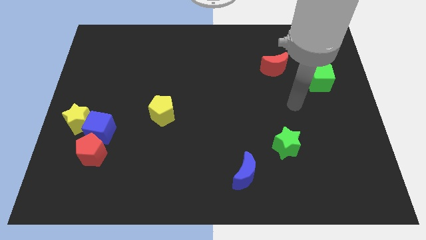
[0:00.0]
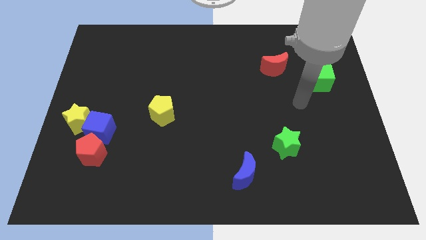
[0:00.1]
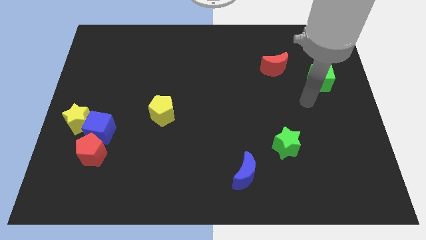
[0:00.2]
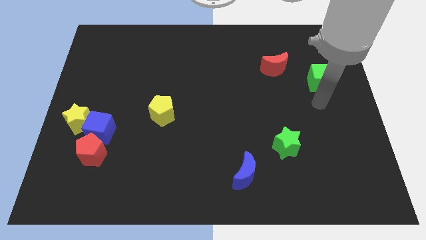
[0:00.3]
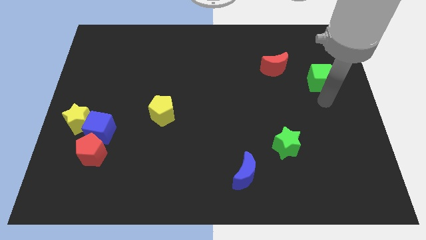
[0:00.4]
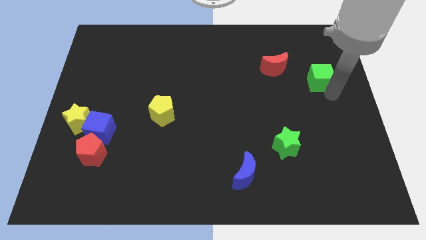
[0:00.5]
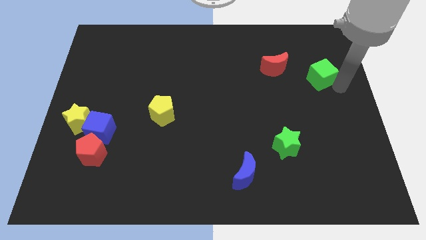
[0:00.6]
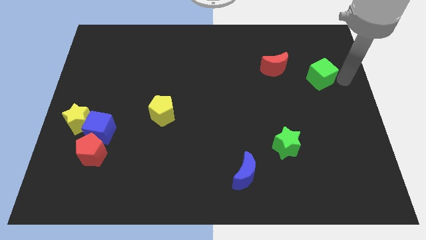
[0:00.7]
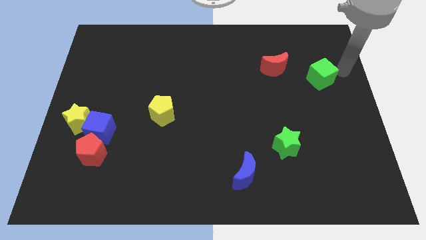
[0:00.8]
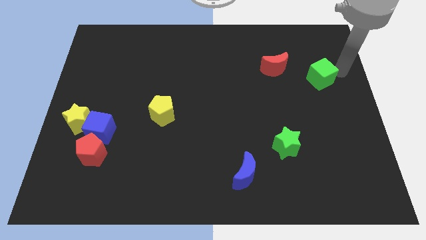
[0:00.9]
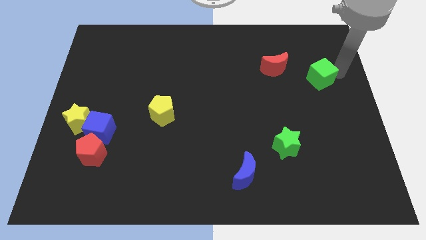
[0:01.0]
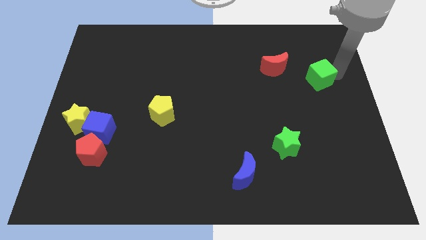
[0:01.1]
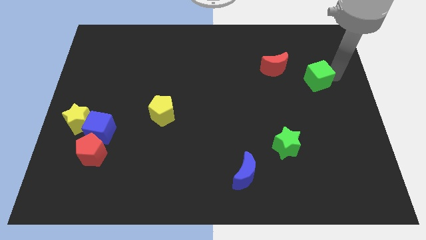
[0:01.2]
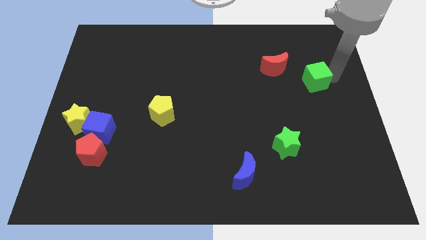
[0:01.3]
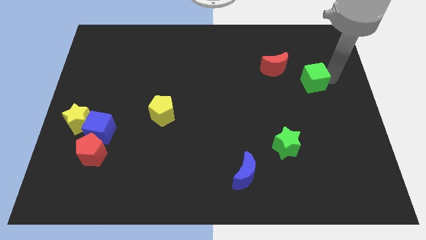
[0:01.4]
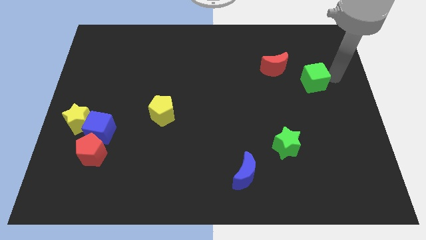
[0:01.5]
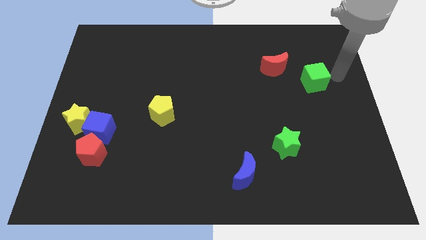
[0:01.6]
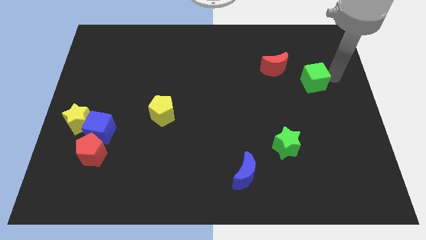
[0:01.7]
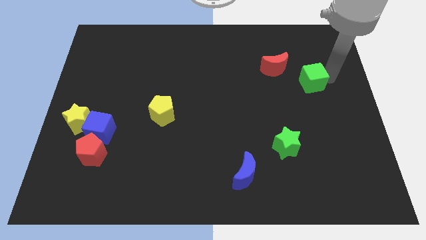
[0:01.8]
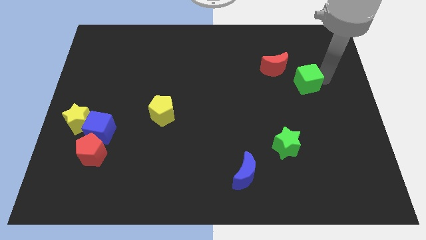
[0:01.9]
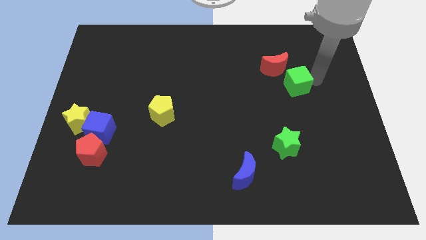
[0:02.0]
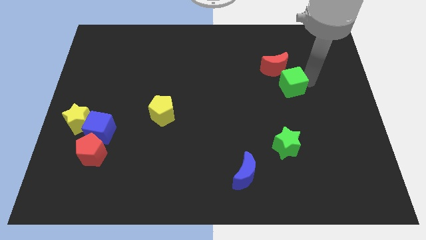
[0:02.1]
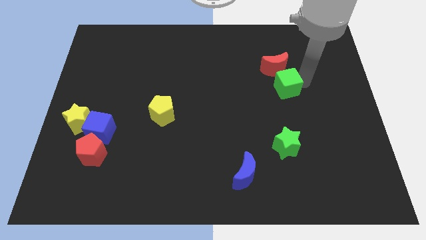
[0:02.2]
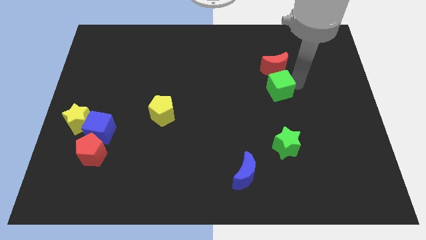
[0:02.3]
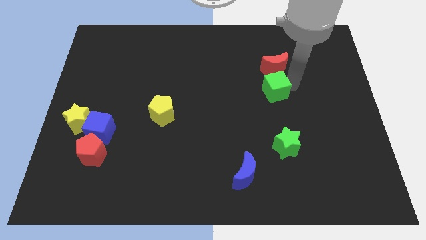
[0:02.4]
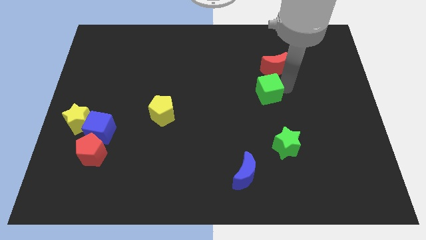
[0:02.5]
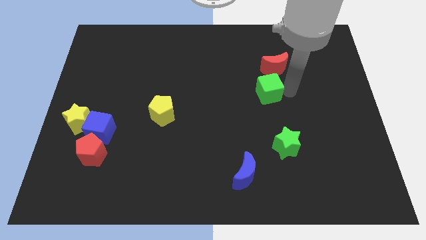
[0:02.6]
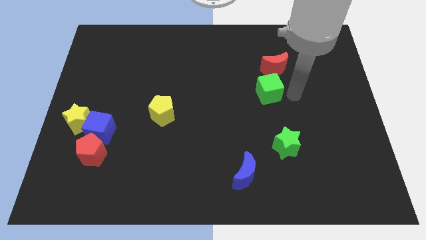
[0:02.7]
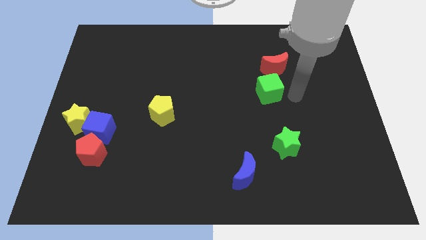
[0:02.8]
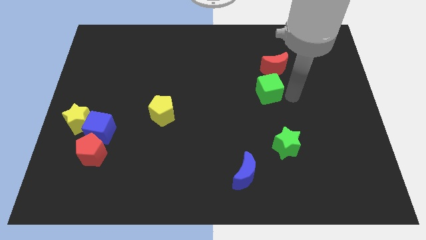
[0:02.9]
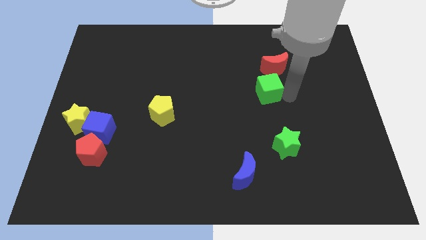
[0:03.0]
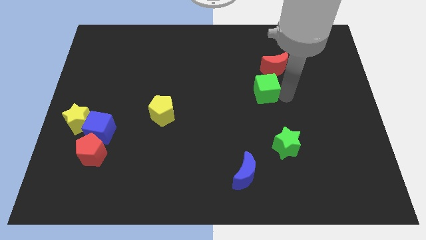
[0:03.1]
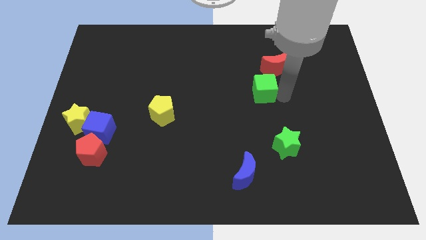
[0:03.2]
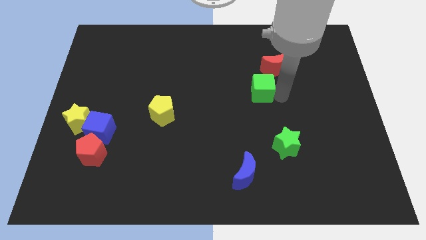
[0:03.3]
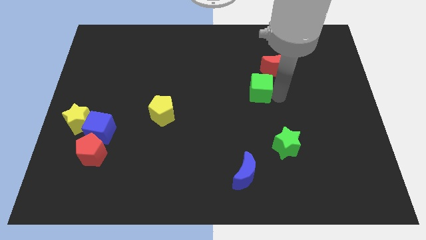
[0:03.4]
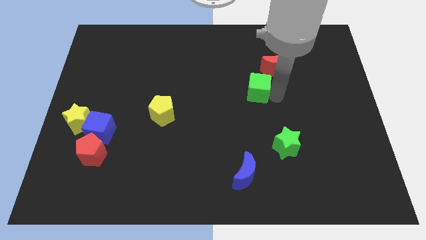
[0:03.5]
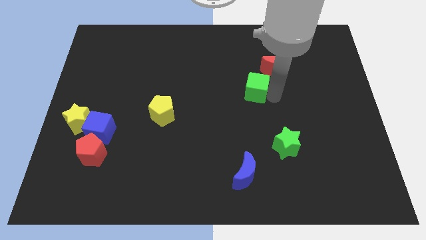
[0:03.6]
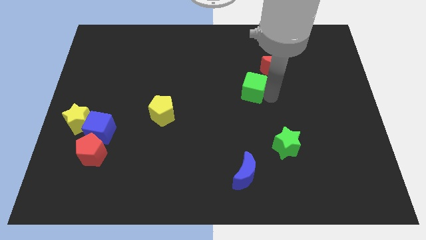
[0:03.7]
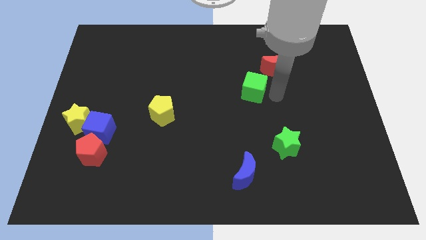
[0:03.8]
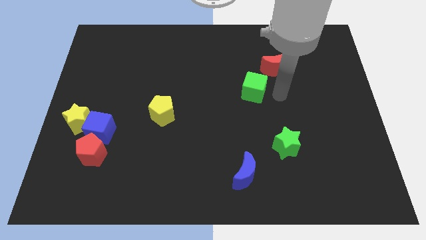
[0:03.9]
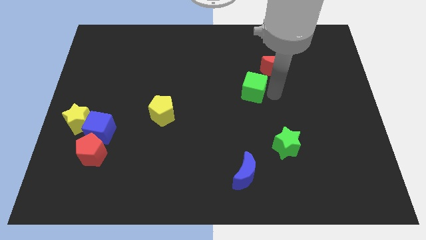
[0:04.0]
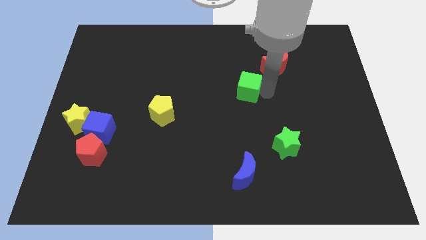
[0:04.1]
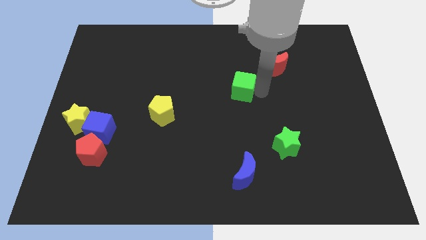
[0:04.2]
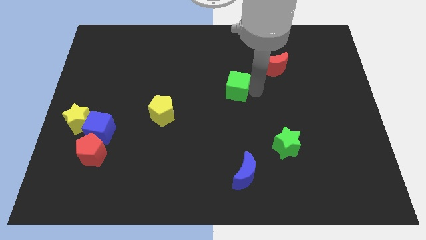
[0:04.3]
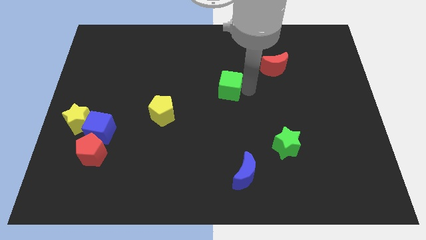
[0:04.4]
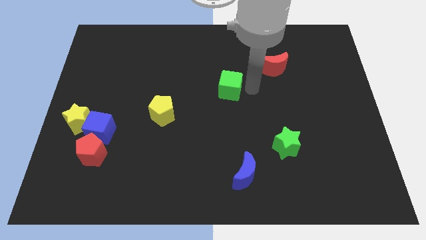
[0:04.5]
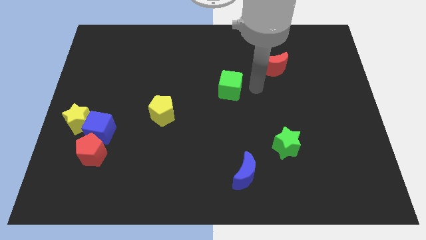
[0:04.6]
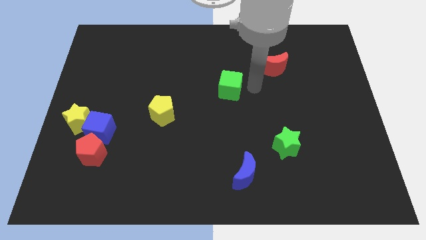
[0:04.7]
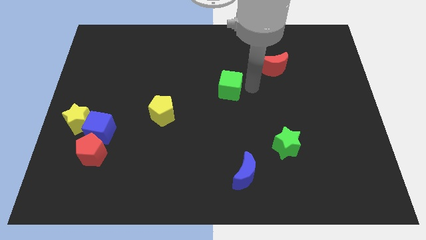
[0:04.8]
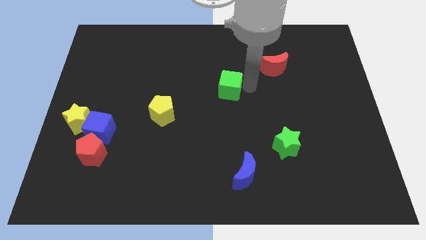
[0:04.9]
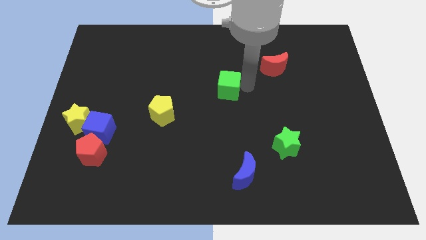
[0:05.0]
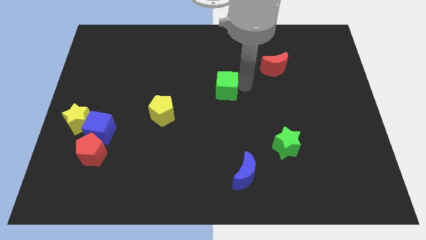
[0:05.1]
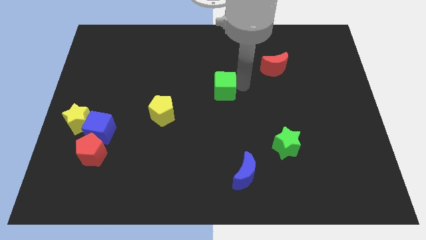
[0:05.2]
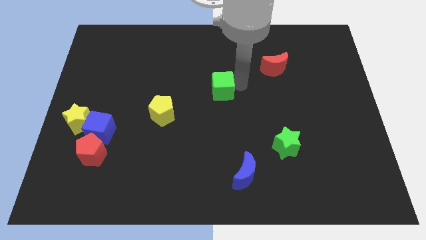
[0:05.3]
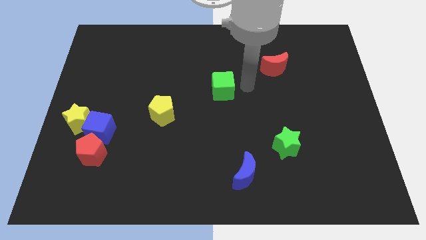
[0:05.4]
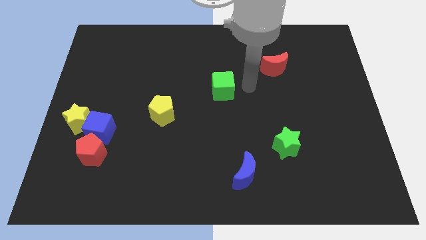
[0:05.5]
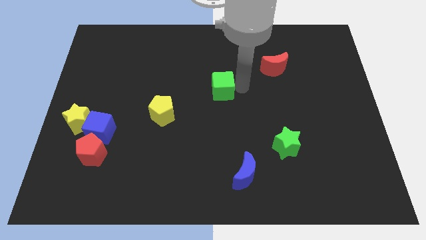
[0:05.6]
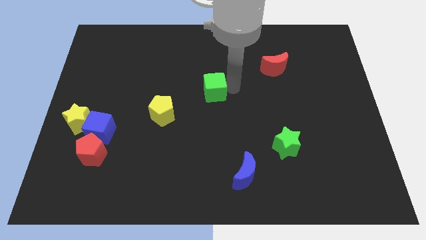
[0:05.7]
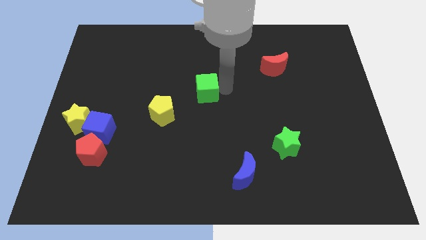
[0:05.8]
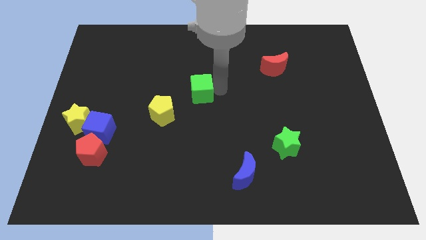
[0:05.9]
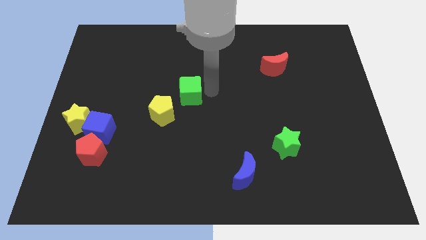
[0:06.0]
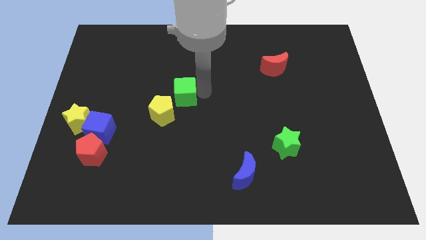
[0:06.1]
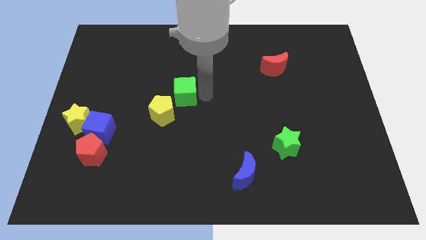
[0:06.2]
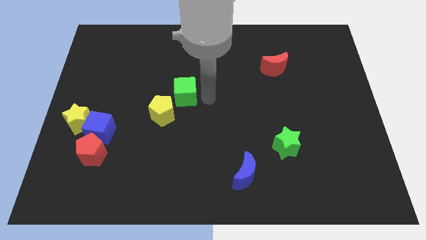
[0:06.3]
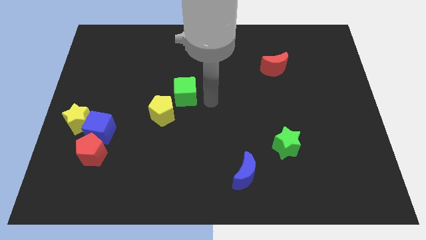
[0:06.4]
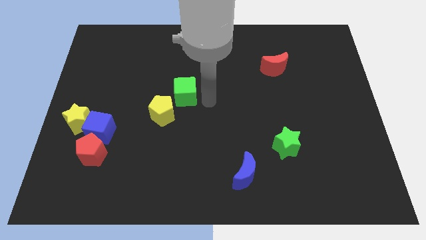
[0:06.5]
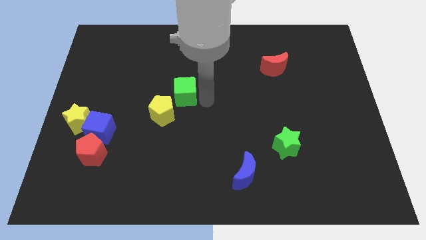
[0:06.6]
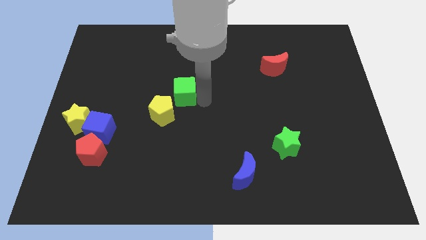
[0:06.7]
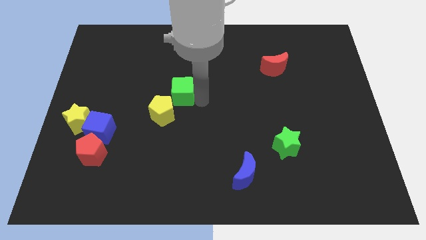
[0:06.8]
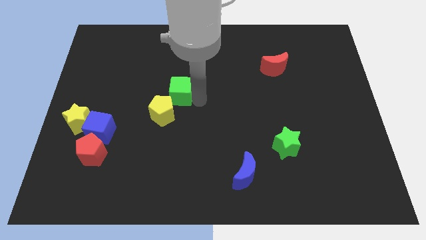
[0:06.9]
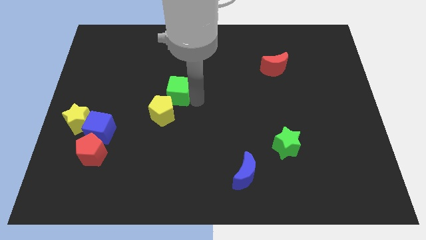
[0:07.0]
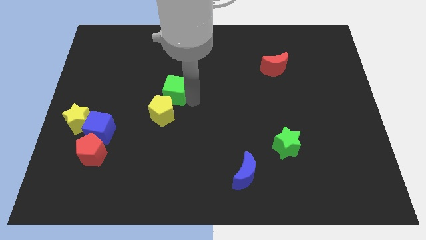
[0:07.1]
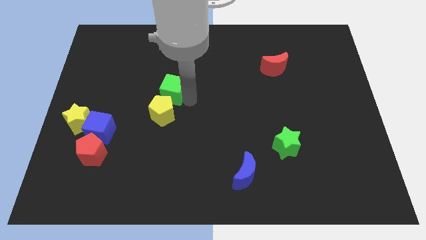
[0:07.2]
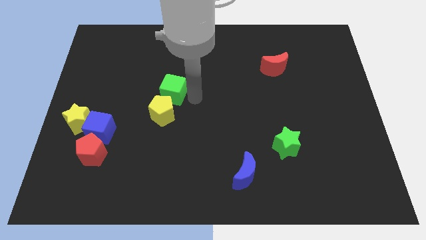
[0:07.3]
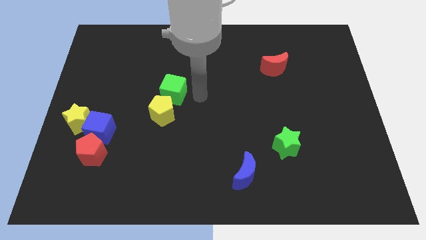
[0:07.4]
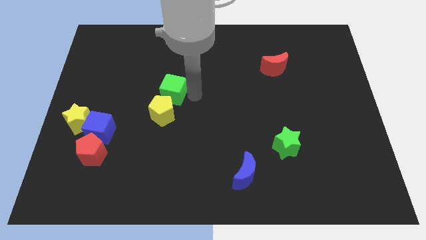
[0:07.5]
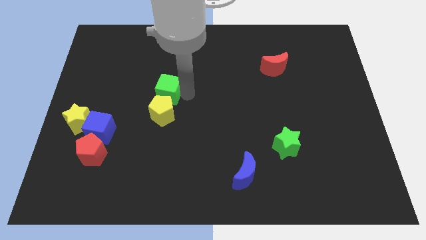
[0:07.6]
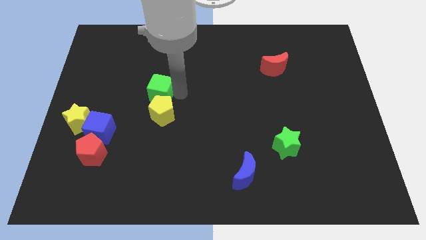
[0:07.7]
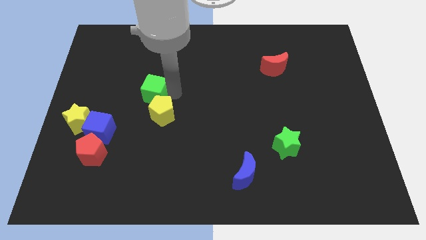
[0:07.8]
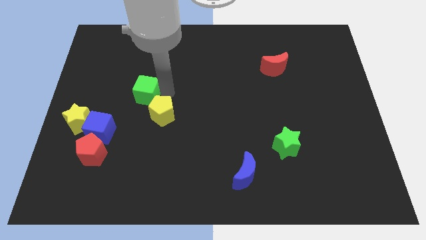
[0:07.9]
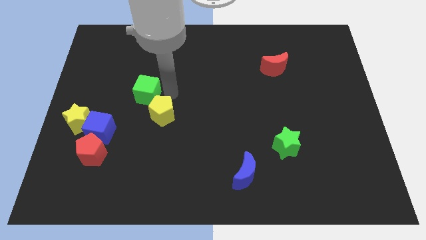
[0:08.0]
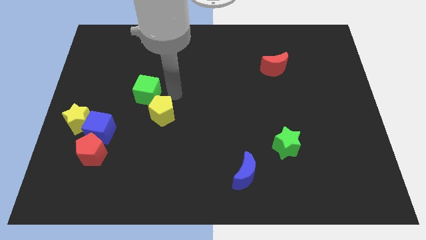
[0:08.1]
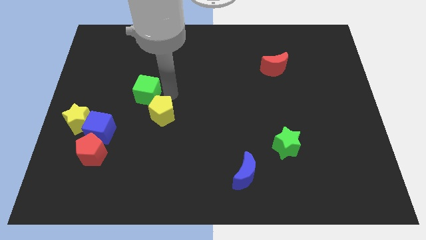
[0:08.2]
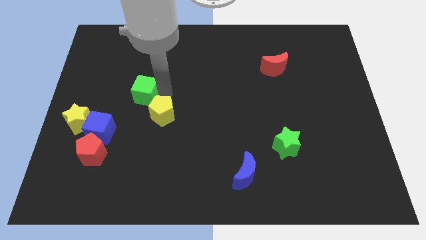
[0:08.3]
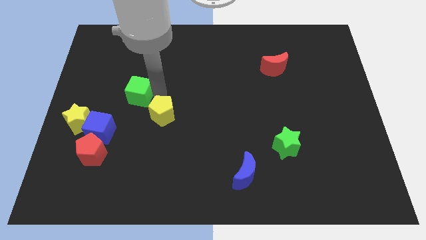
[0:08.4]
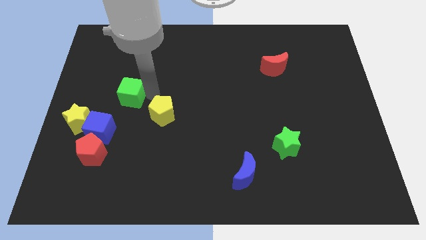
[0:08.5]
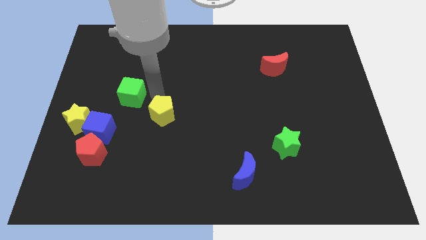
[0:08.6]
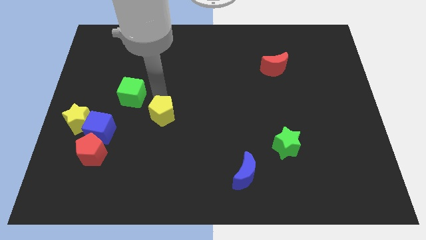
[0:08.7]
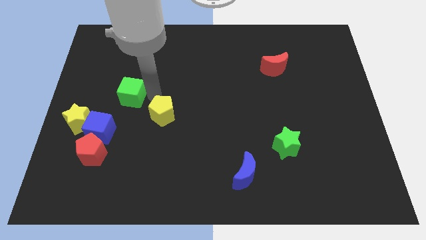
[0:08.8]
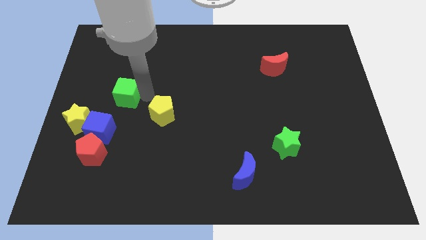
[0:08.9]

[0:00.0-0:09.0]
move the green cube to the top side of the blue cube
